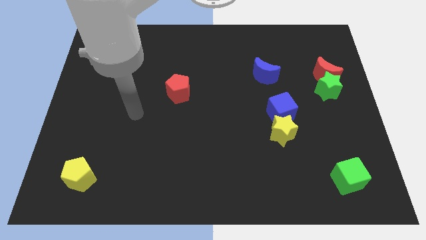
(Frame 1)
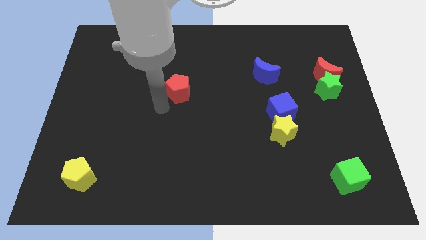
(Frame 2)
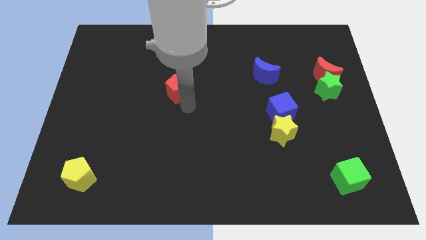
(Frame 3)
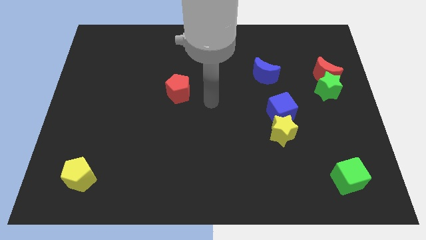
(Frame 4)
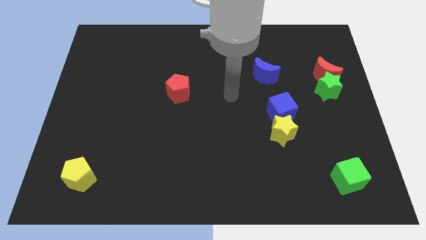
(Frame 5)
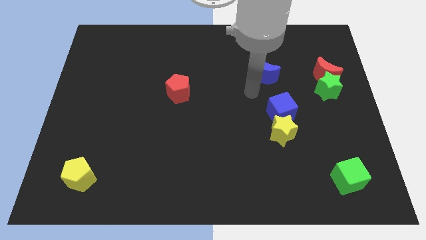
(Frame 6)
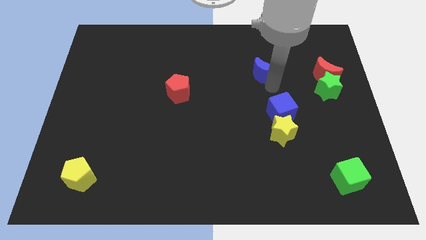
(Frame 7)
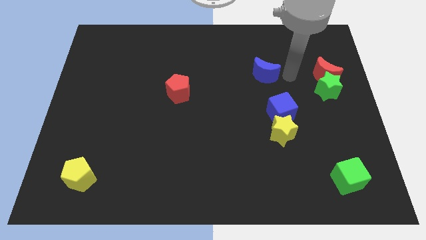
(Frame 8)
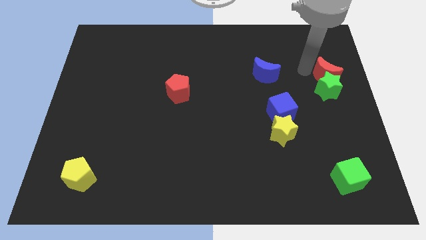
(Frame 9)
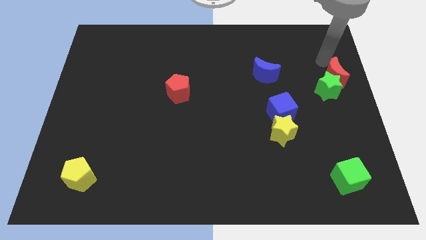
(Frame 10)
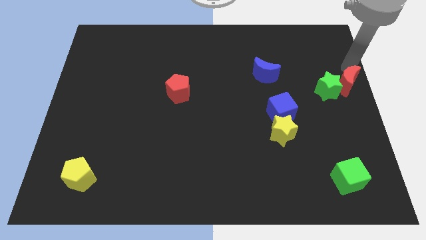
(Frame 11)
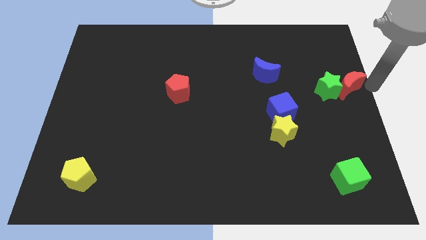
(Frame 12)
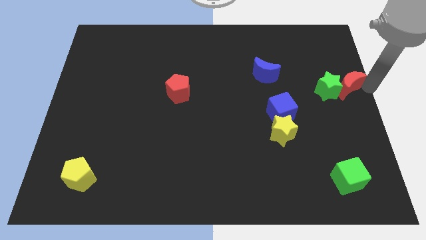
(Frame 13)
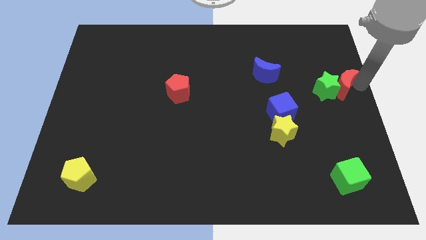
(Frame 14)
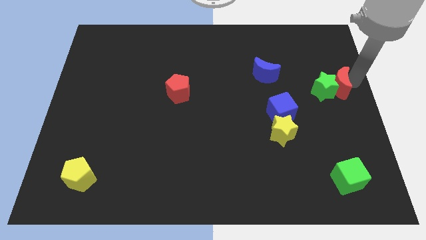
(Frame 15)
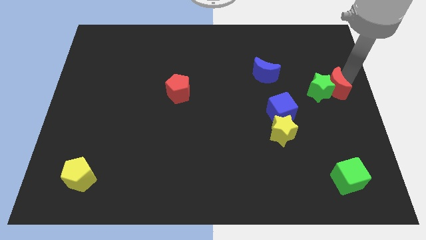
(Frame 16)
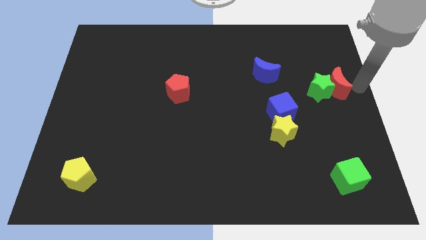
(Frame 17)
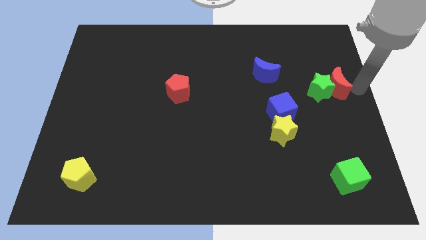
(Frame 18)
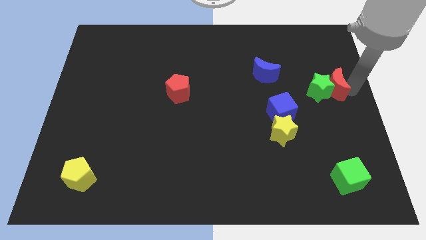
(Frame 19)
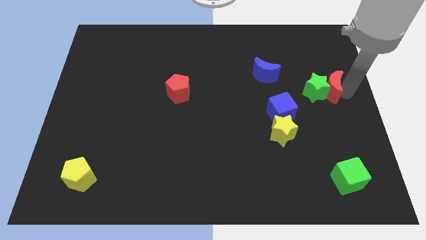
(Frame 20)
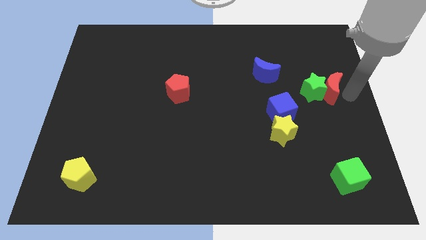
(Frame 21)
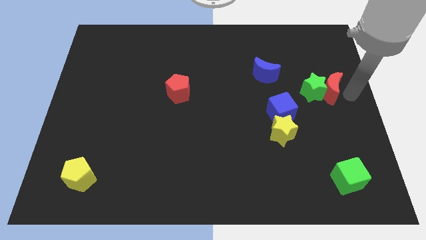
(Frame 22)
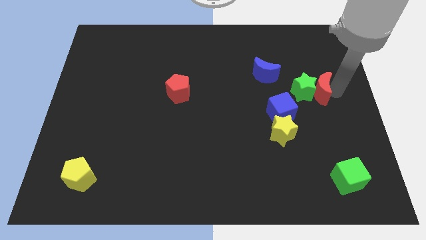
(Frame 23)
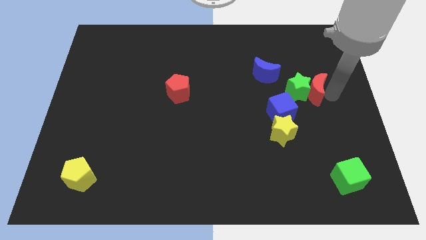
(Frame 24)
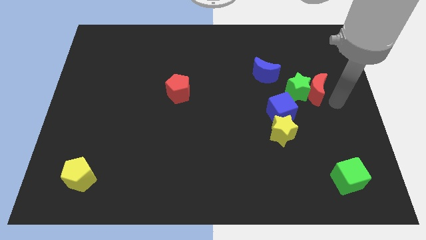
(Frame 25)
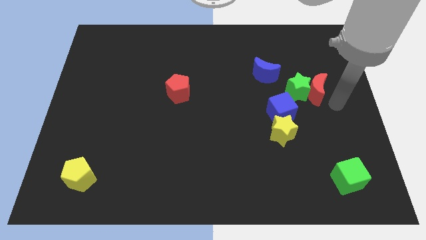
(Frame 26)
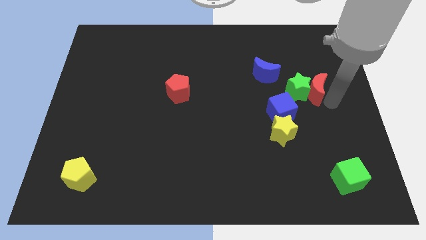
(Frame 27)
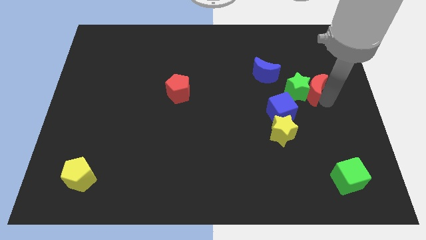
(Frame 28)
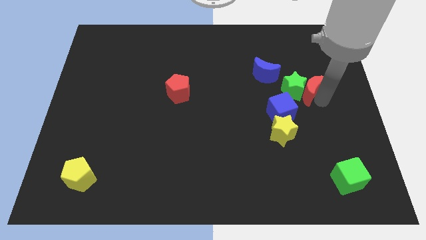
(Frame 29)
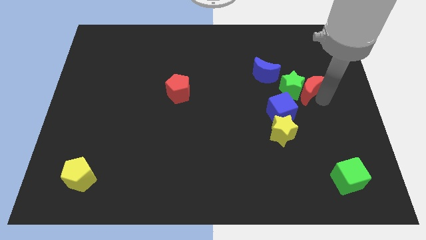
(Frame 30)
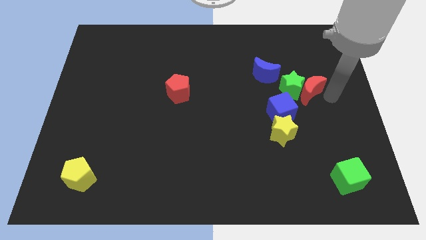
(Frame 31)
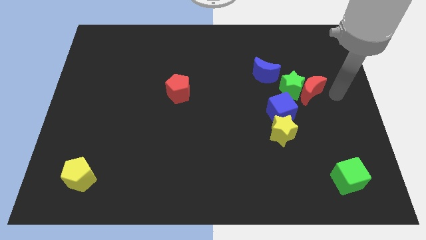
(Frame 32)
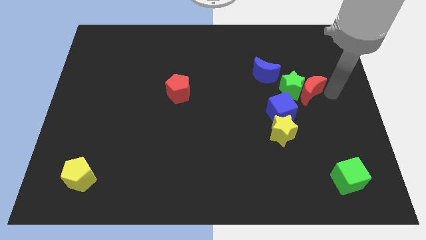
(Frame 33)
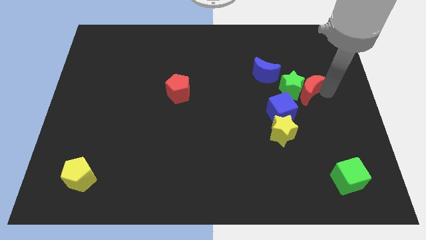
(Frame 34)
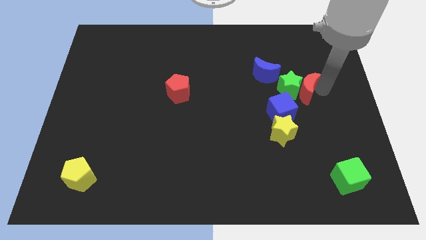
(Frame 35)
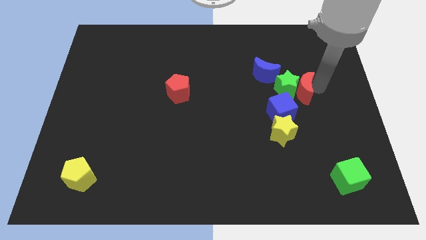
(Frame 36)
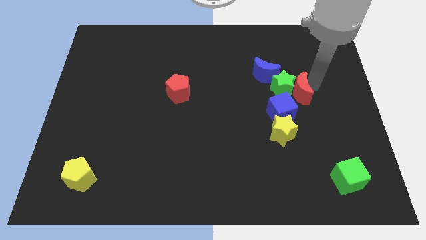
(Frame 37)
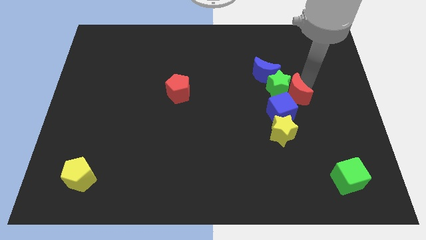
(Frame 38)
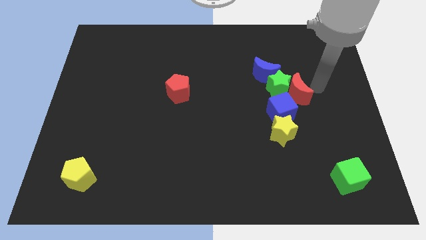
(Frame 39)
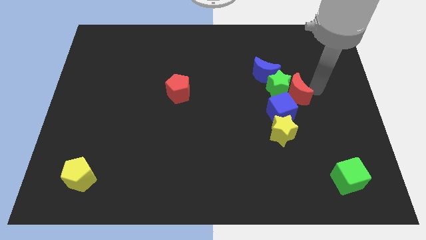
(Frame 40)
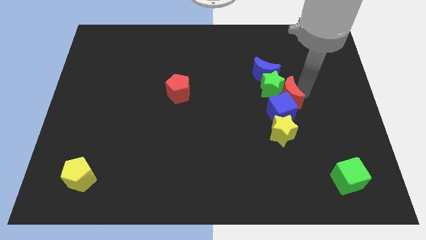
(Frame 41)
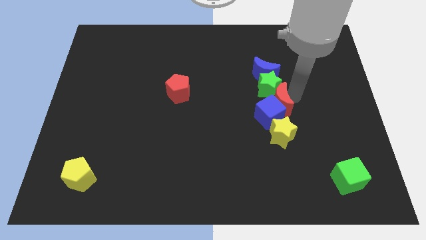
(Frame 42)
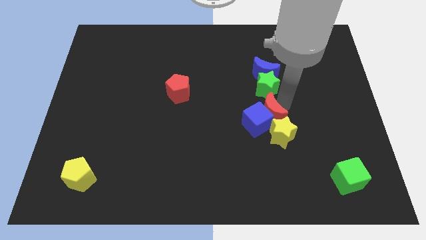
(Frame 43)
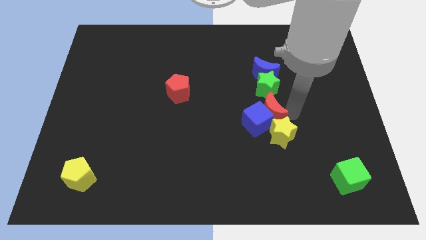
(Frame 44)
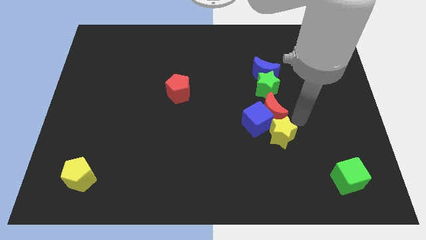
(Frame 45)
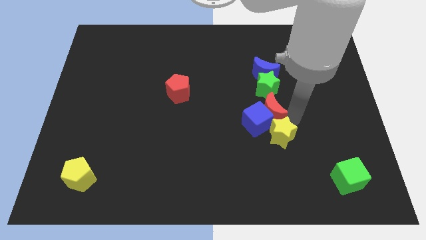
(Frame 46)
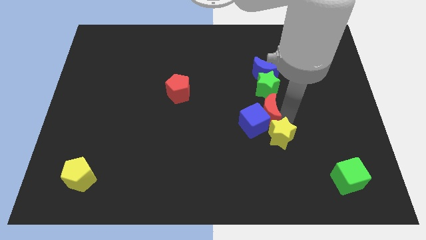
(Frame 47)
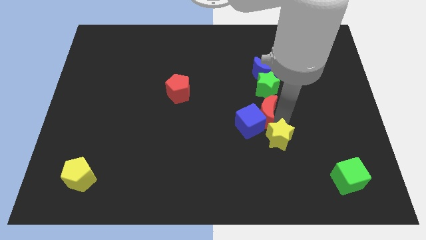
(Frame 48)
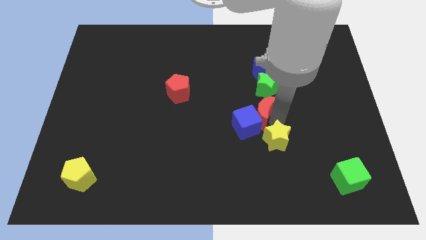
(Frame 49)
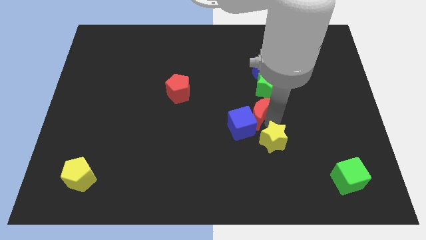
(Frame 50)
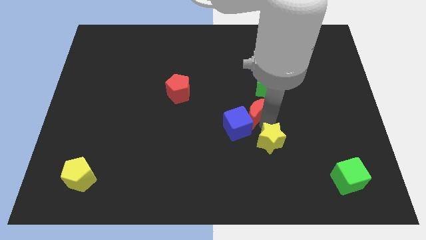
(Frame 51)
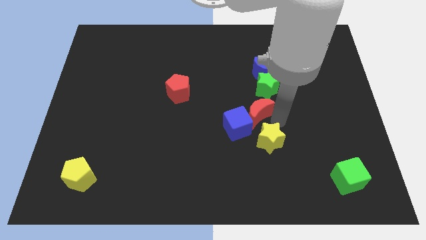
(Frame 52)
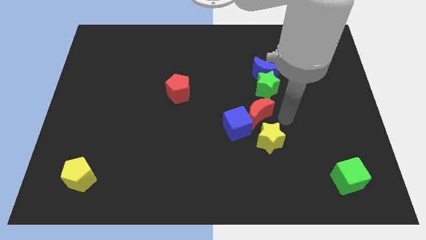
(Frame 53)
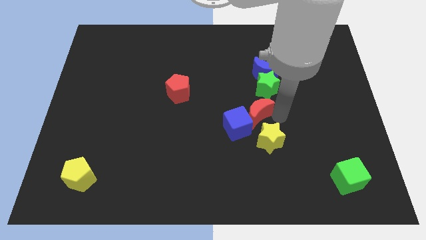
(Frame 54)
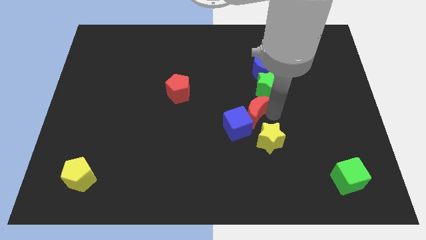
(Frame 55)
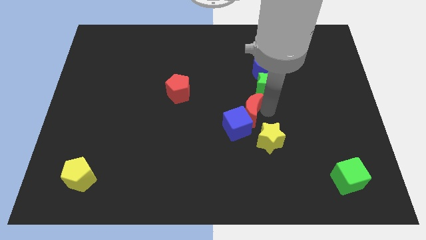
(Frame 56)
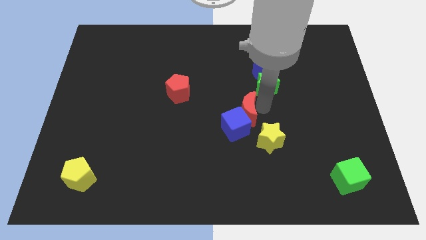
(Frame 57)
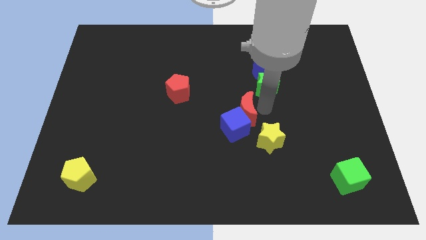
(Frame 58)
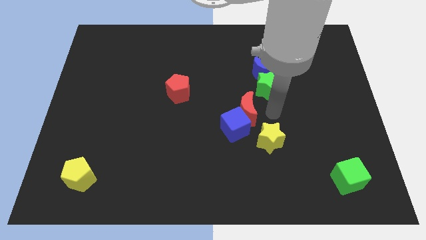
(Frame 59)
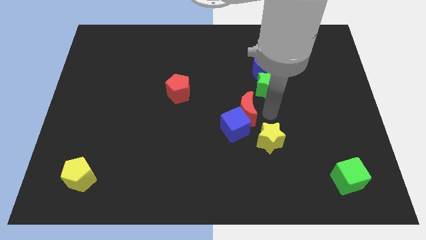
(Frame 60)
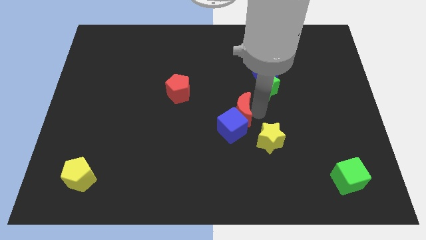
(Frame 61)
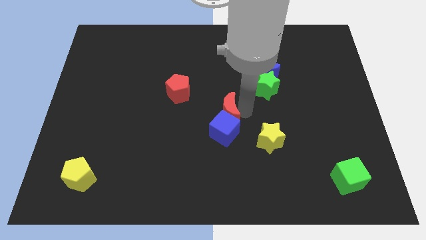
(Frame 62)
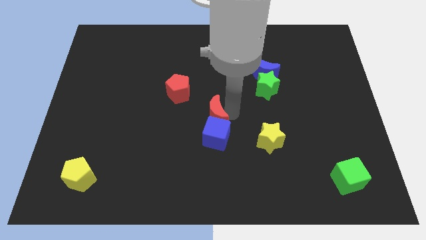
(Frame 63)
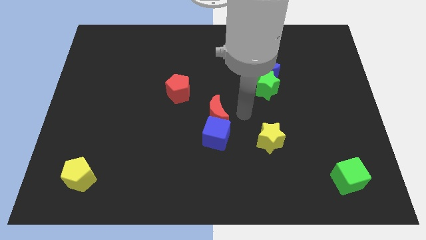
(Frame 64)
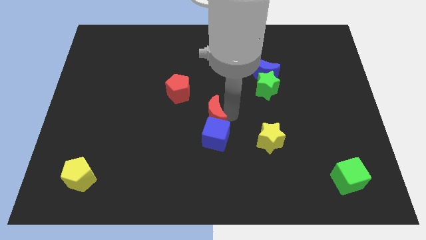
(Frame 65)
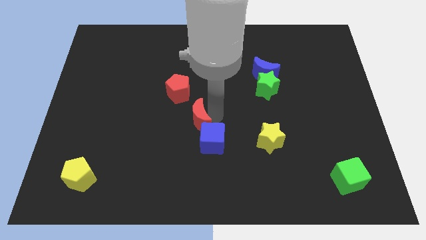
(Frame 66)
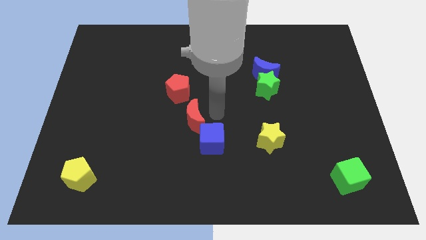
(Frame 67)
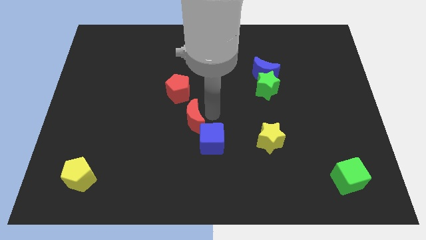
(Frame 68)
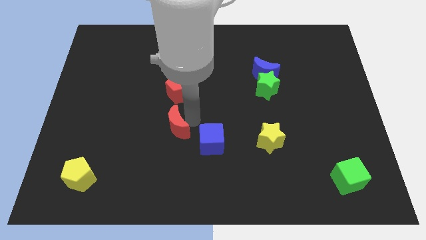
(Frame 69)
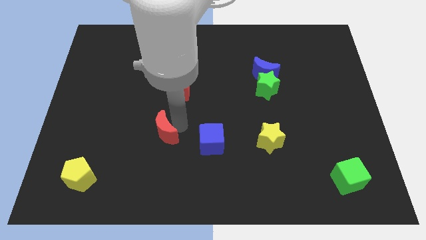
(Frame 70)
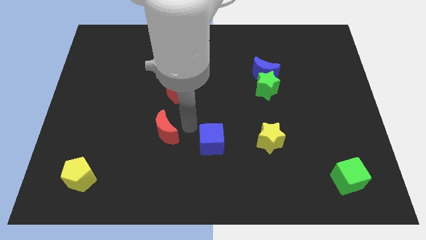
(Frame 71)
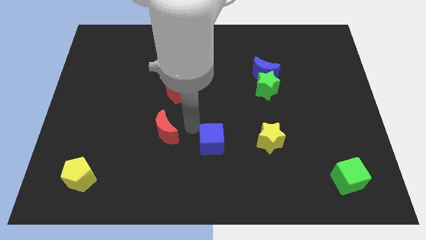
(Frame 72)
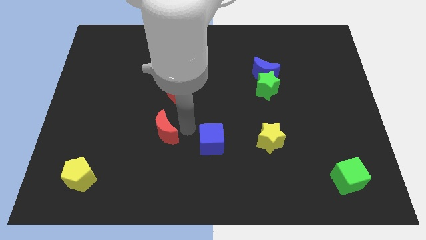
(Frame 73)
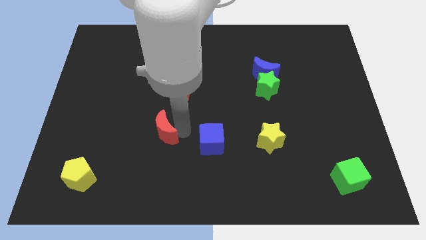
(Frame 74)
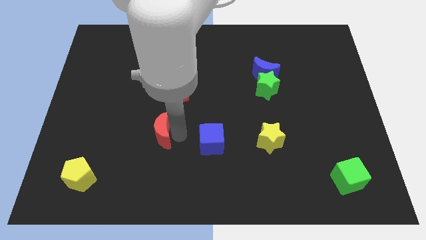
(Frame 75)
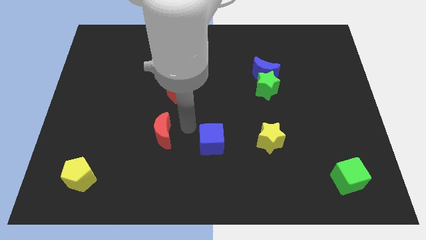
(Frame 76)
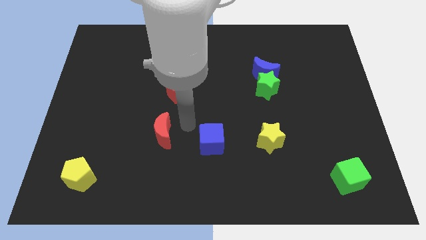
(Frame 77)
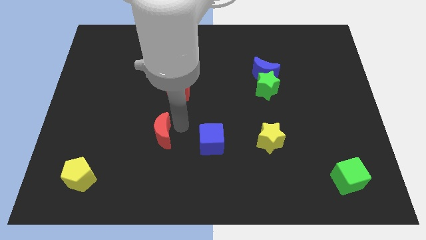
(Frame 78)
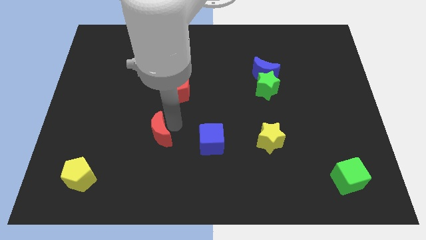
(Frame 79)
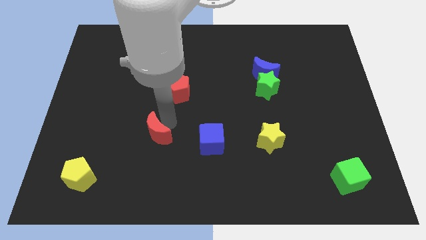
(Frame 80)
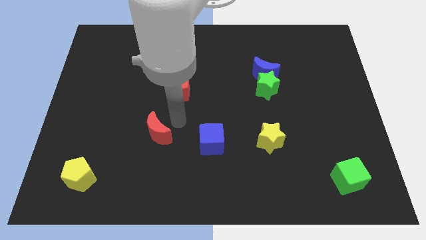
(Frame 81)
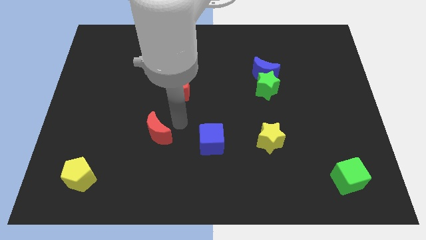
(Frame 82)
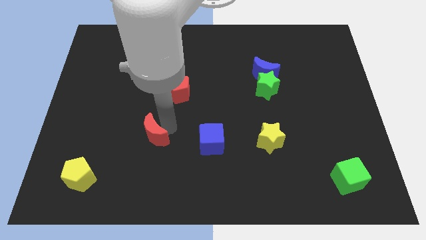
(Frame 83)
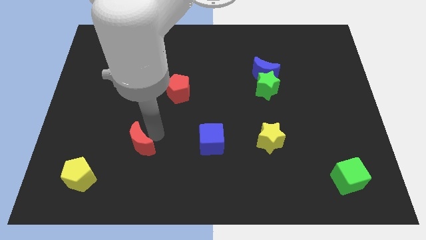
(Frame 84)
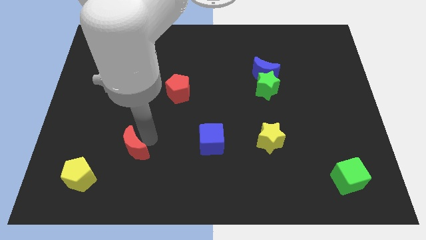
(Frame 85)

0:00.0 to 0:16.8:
put the red moon diagonally up and to the right of the yellow pentagon
